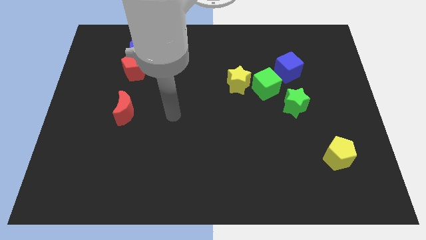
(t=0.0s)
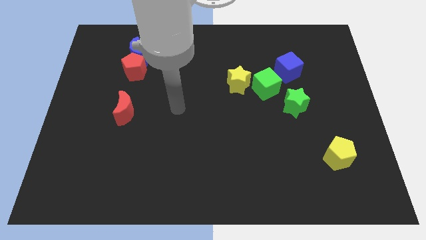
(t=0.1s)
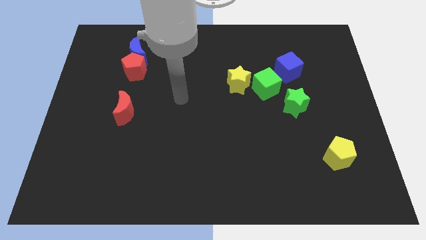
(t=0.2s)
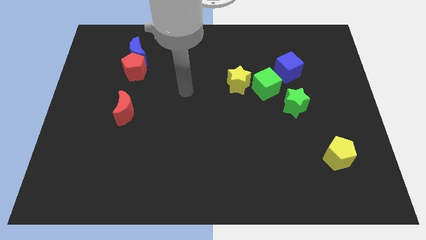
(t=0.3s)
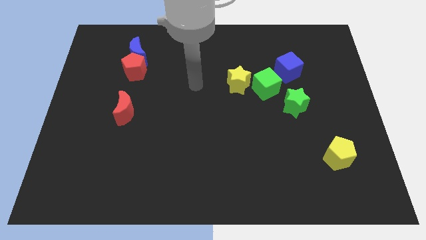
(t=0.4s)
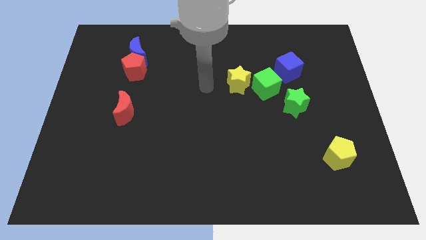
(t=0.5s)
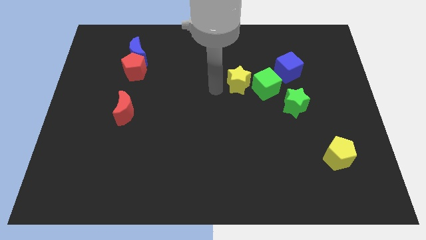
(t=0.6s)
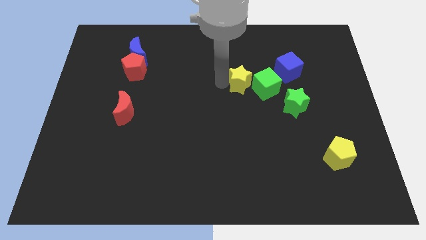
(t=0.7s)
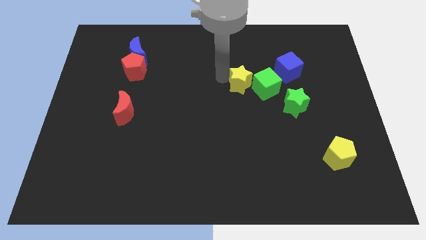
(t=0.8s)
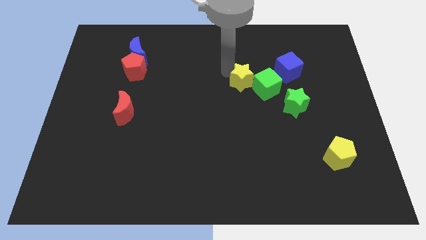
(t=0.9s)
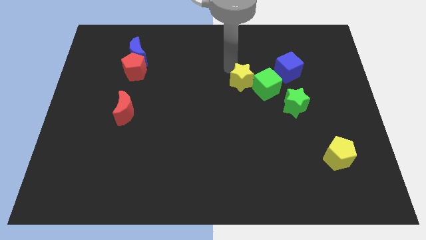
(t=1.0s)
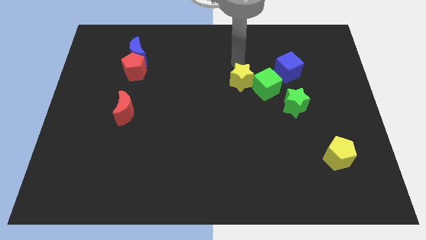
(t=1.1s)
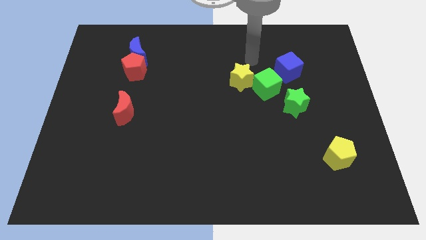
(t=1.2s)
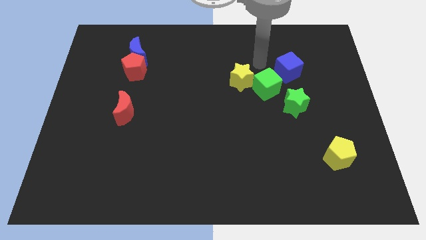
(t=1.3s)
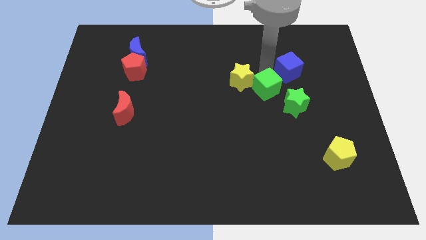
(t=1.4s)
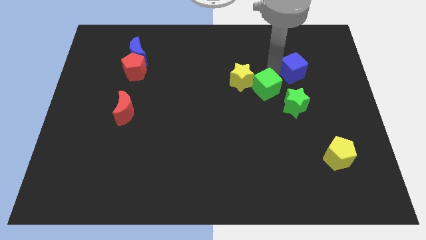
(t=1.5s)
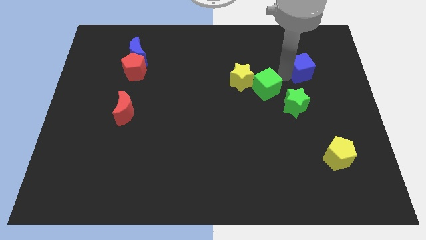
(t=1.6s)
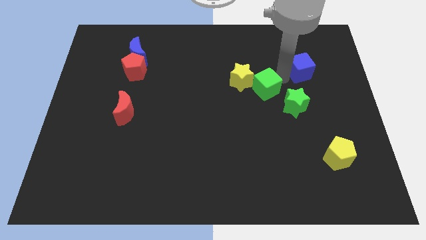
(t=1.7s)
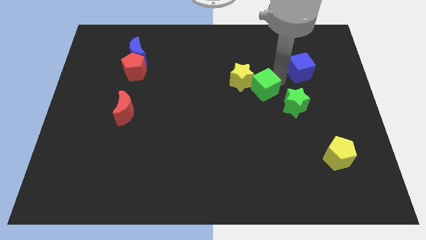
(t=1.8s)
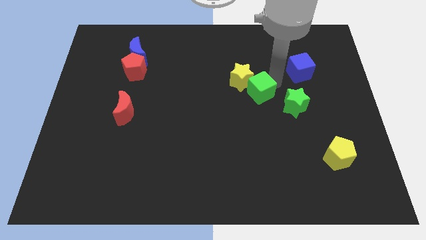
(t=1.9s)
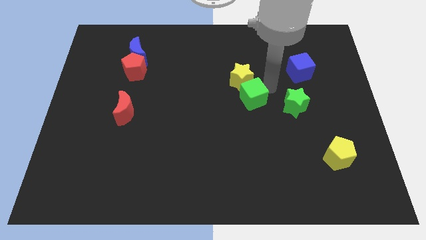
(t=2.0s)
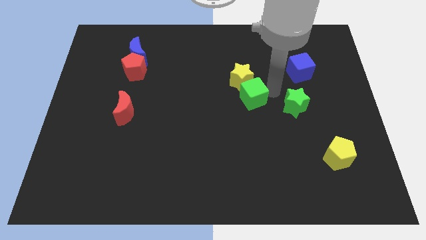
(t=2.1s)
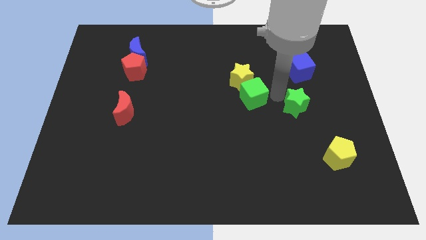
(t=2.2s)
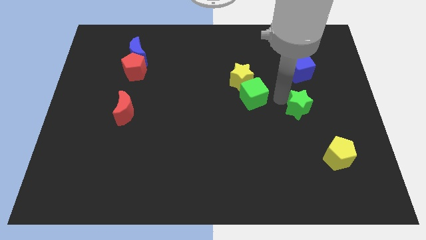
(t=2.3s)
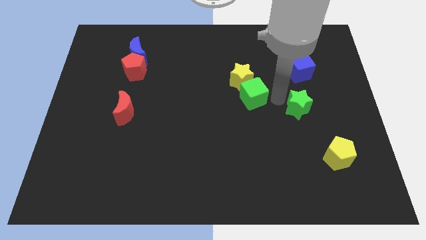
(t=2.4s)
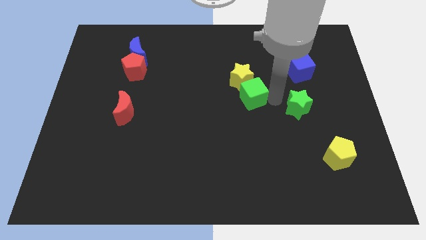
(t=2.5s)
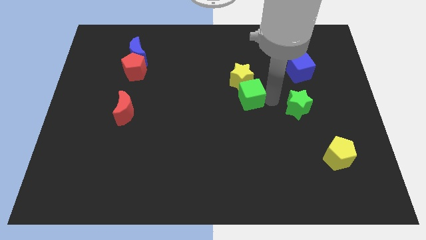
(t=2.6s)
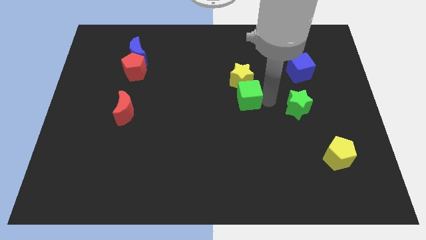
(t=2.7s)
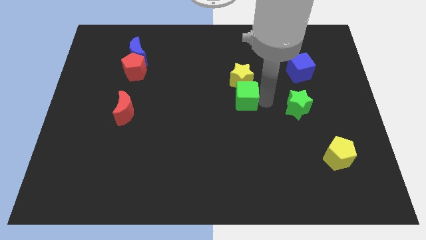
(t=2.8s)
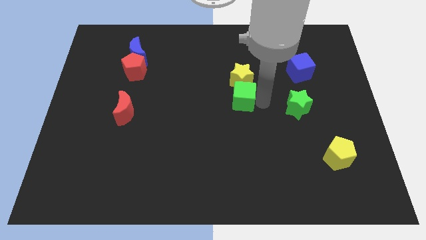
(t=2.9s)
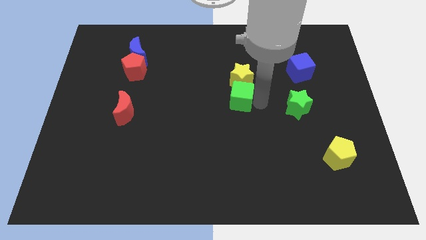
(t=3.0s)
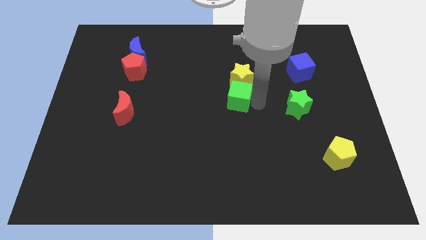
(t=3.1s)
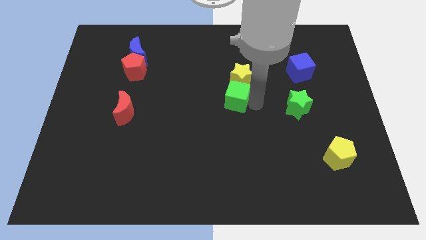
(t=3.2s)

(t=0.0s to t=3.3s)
push the green cube to the left a bit

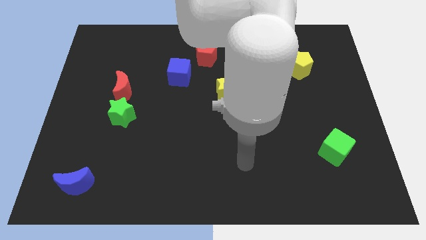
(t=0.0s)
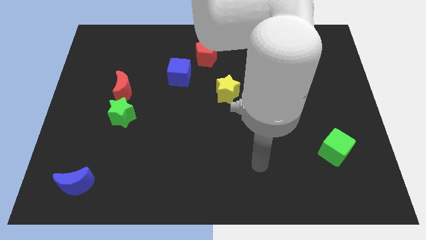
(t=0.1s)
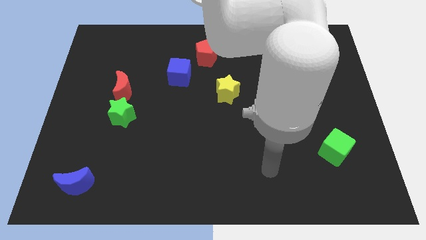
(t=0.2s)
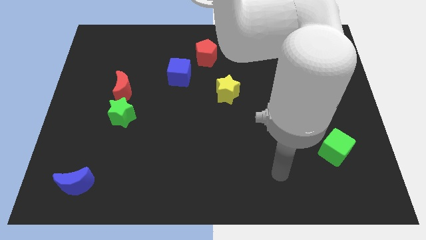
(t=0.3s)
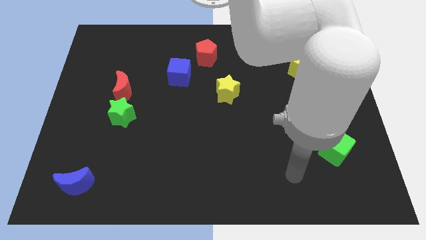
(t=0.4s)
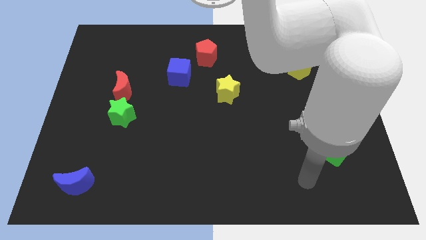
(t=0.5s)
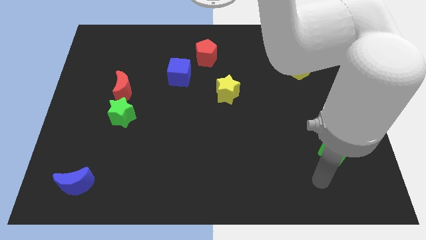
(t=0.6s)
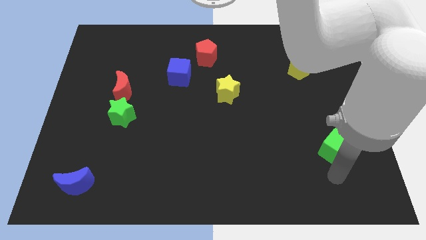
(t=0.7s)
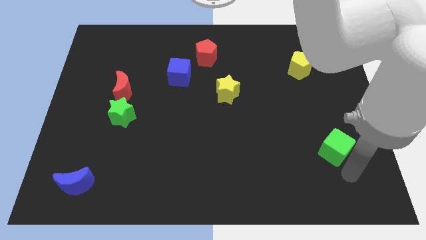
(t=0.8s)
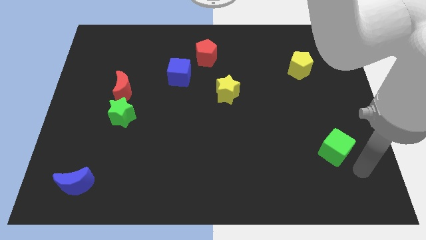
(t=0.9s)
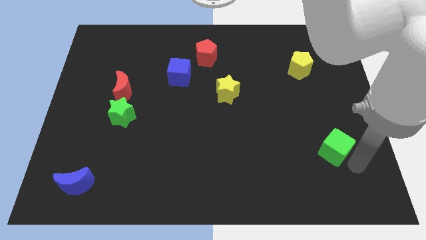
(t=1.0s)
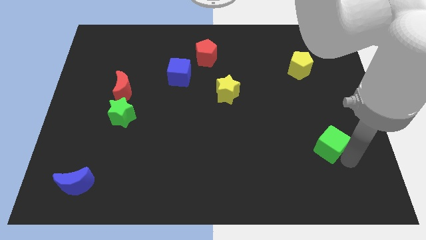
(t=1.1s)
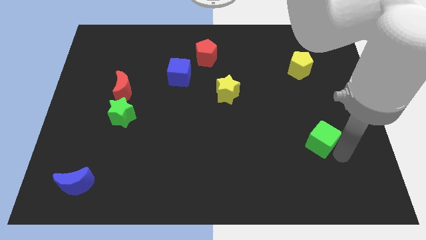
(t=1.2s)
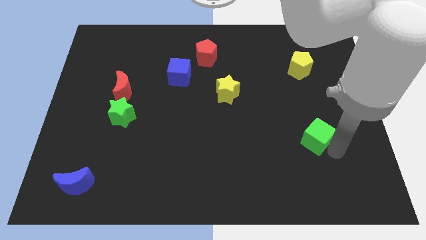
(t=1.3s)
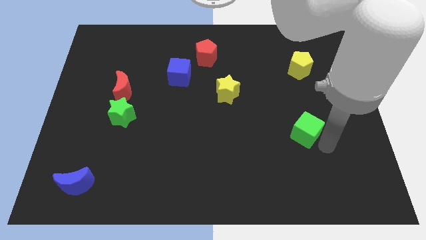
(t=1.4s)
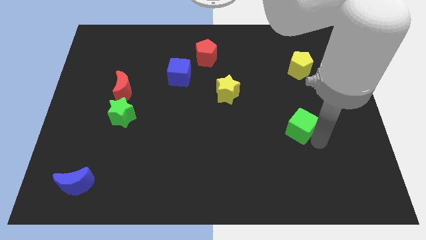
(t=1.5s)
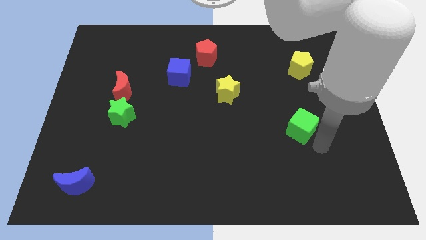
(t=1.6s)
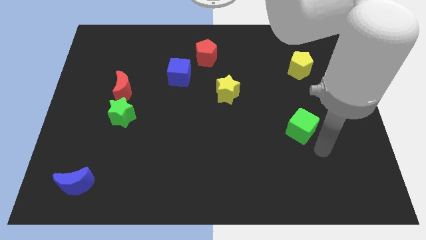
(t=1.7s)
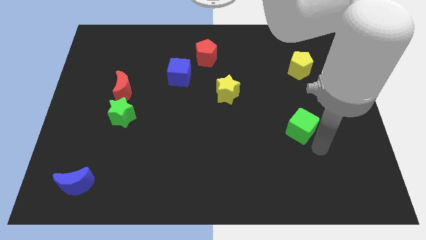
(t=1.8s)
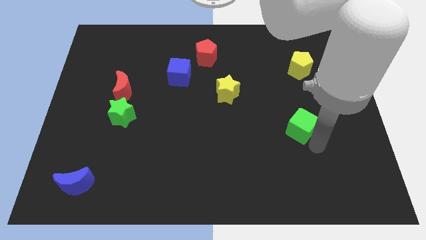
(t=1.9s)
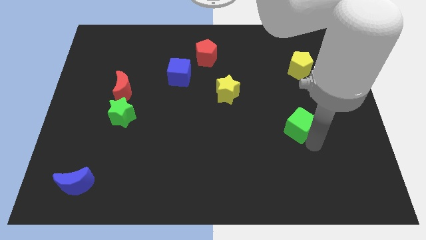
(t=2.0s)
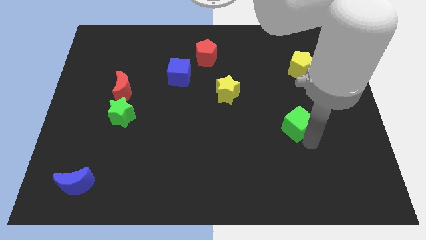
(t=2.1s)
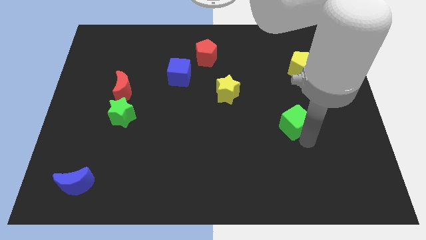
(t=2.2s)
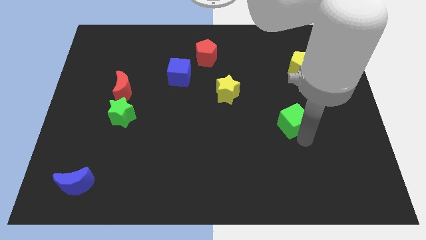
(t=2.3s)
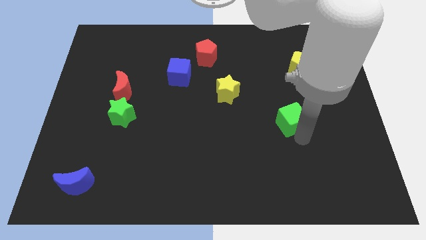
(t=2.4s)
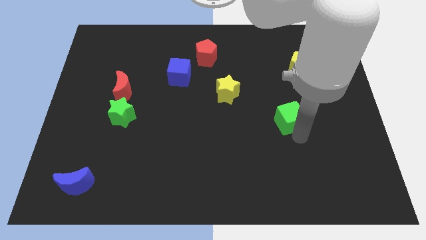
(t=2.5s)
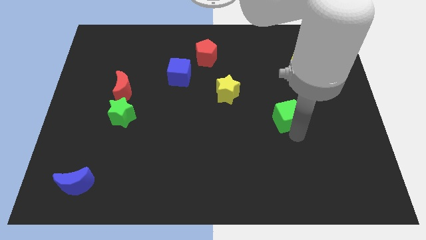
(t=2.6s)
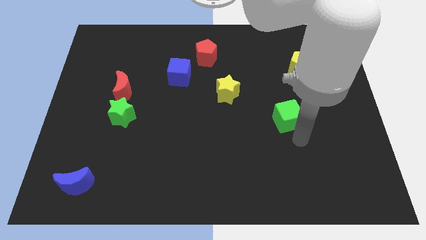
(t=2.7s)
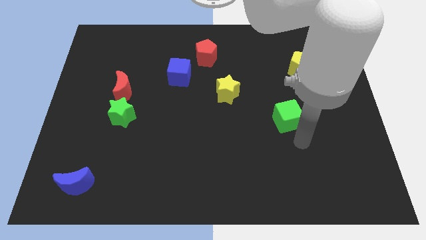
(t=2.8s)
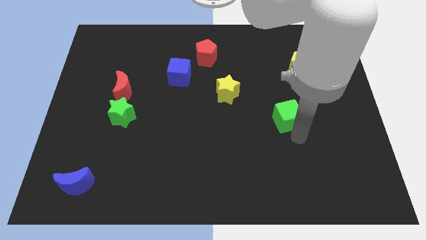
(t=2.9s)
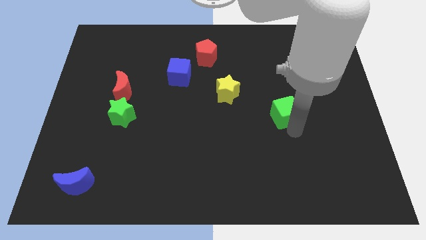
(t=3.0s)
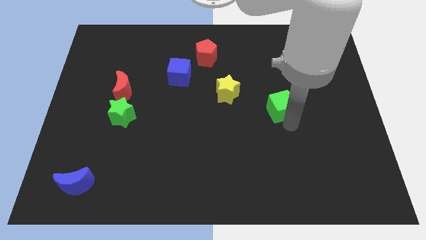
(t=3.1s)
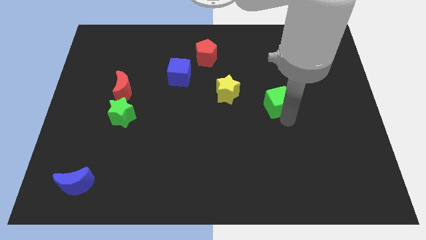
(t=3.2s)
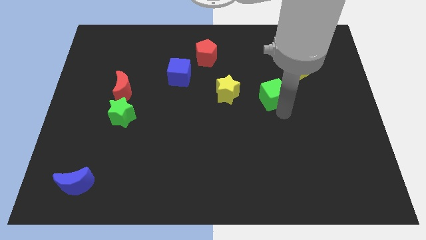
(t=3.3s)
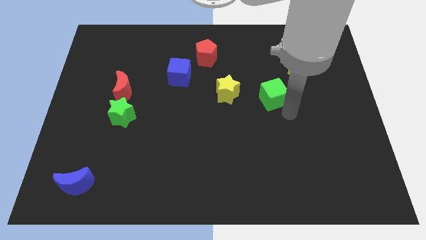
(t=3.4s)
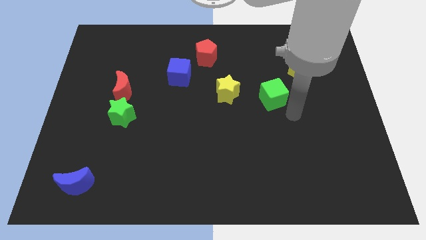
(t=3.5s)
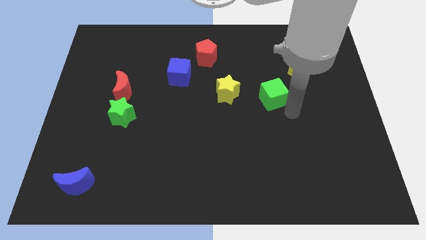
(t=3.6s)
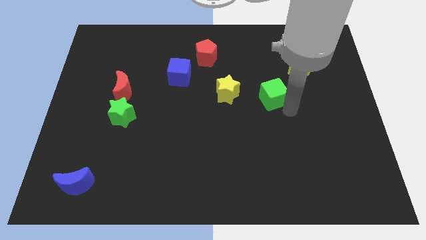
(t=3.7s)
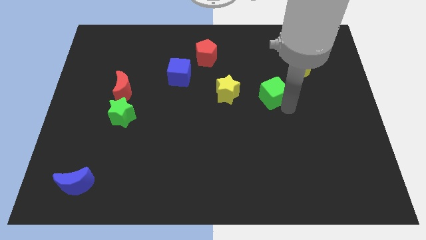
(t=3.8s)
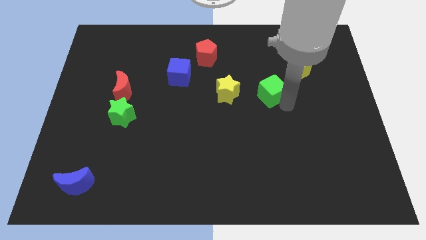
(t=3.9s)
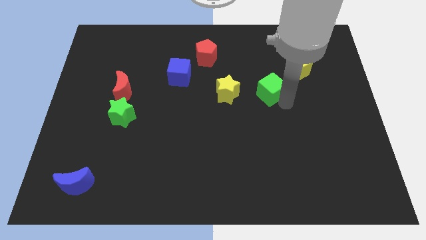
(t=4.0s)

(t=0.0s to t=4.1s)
slide the green cube diagonally upwards and left

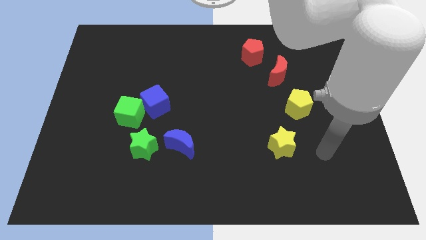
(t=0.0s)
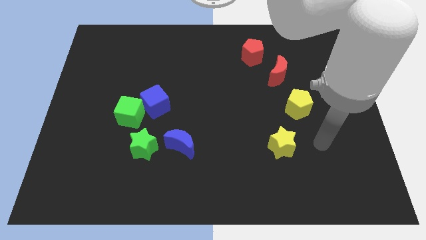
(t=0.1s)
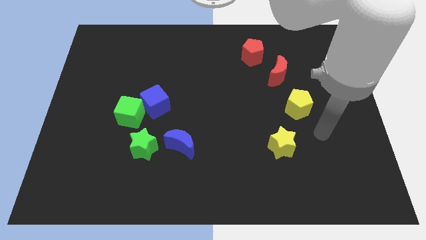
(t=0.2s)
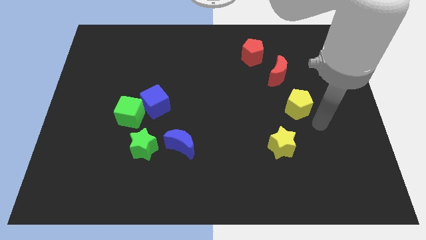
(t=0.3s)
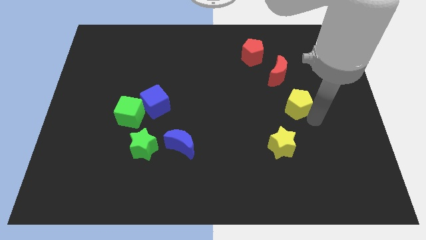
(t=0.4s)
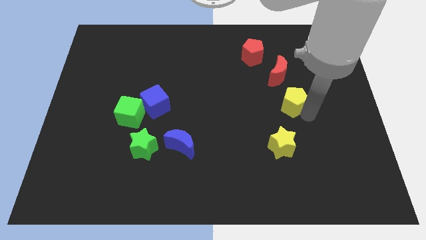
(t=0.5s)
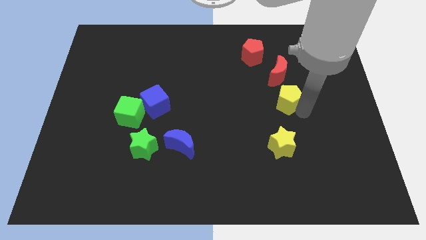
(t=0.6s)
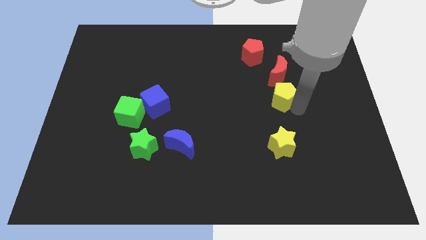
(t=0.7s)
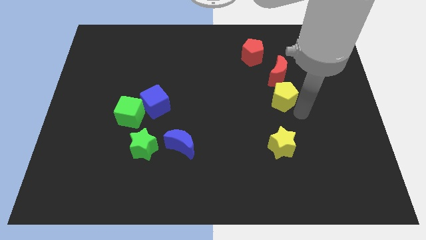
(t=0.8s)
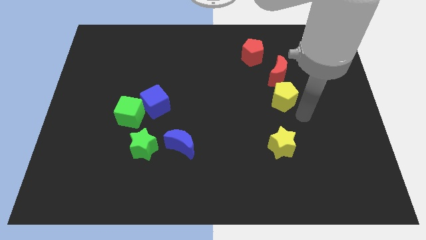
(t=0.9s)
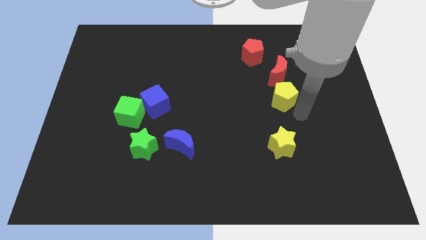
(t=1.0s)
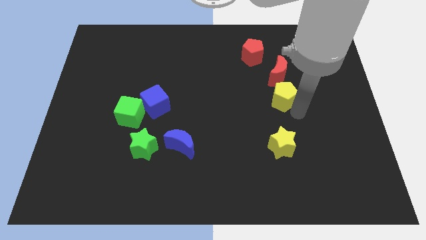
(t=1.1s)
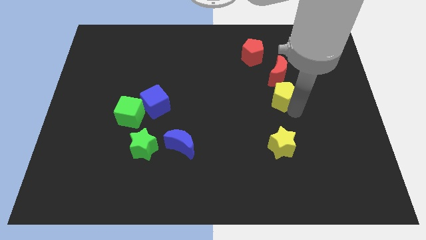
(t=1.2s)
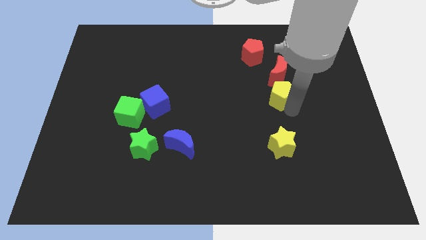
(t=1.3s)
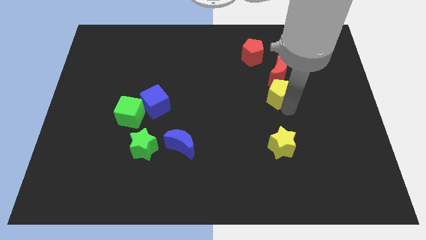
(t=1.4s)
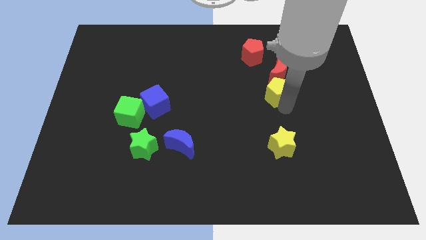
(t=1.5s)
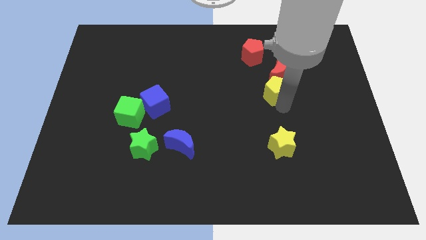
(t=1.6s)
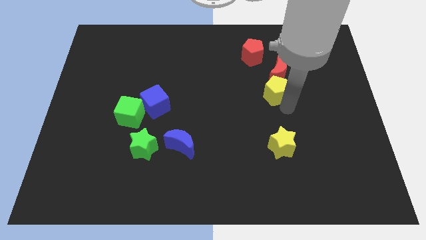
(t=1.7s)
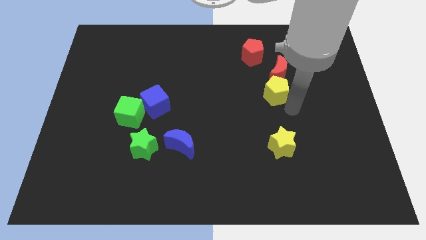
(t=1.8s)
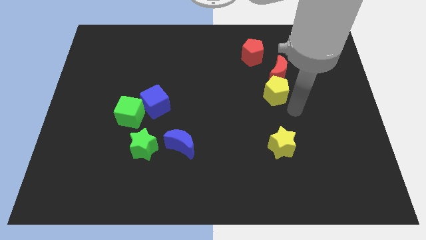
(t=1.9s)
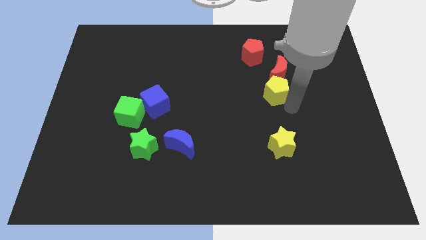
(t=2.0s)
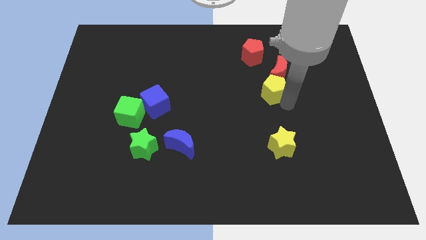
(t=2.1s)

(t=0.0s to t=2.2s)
slide the yellow pentagon upwards and then to the left slightly
